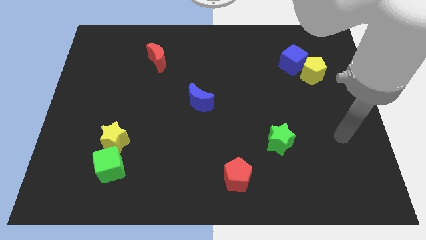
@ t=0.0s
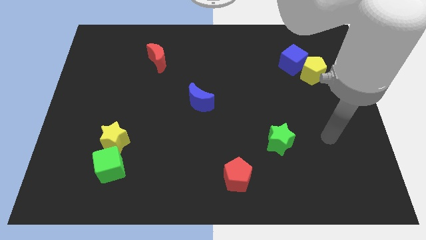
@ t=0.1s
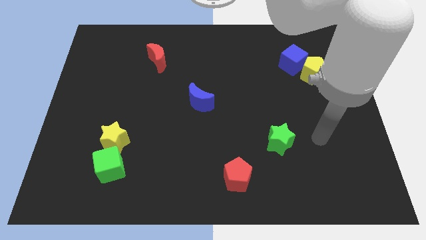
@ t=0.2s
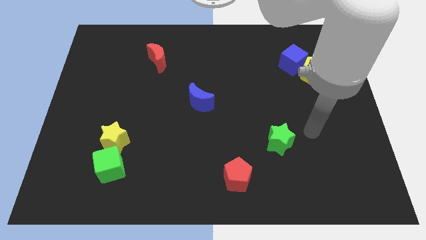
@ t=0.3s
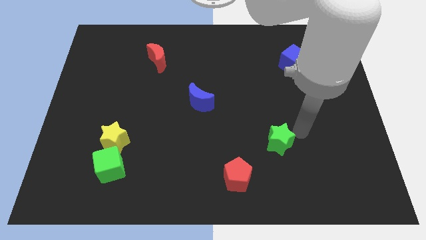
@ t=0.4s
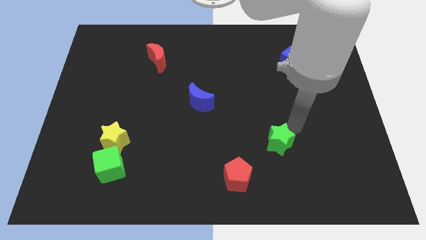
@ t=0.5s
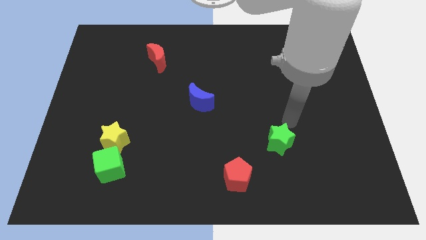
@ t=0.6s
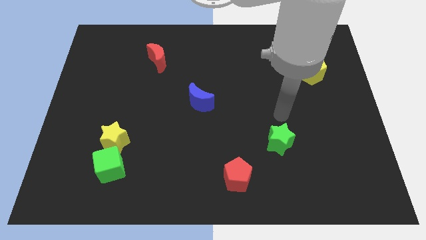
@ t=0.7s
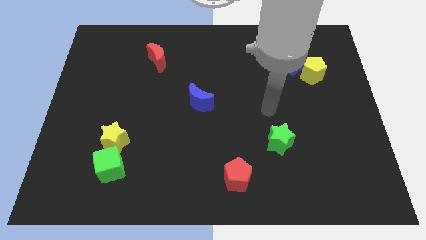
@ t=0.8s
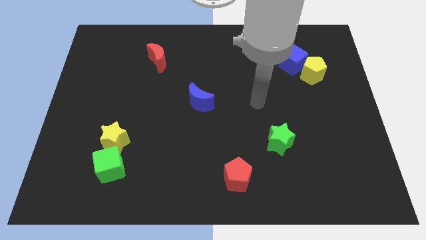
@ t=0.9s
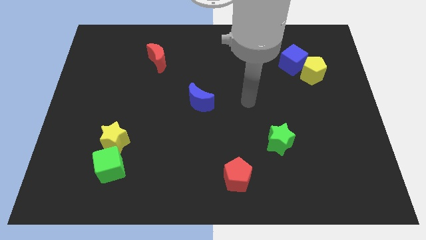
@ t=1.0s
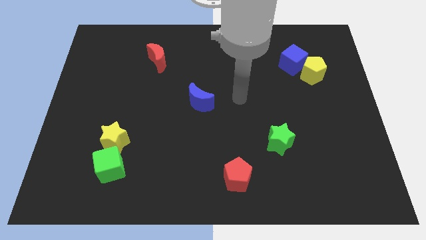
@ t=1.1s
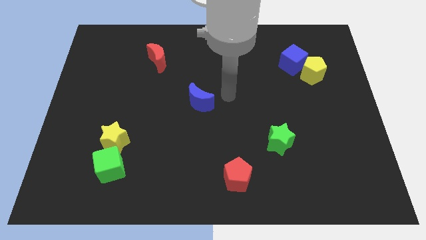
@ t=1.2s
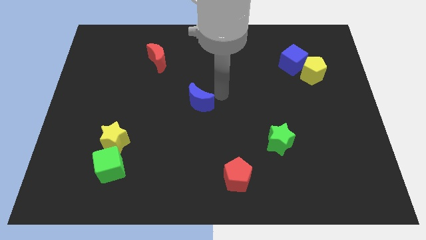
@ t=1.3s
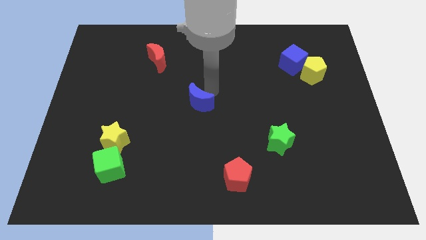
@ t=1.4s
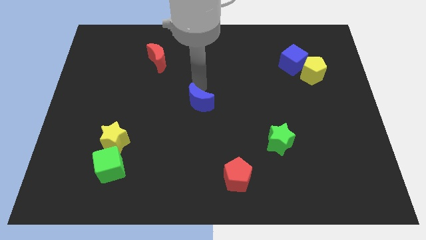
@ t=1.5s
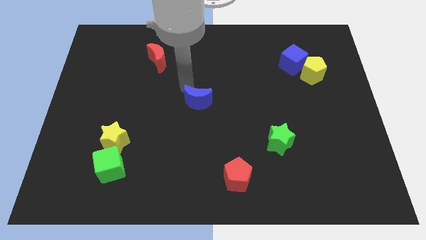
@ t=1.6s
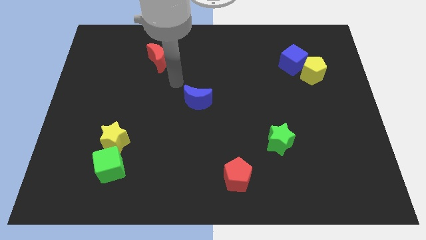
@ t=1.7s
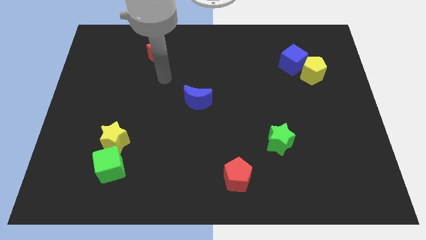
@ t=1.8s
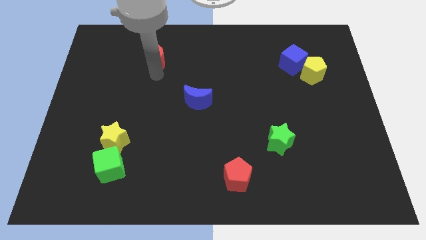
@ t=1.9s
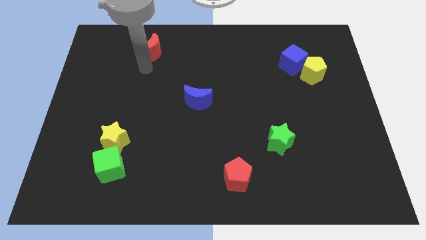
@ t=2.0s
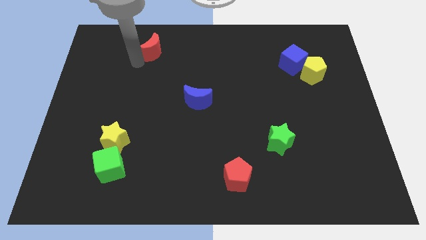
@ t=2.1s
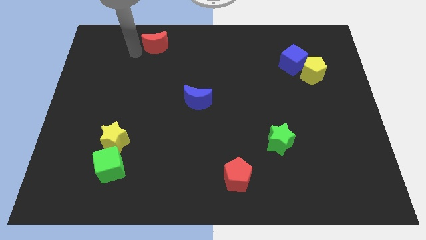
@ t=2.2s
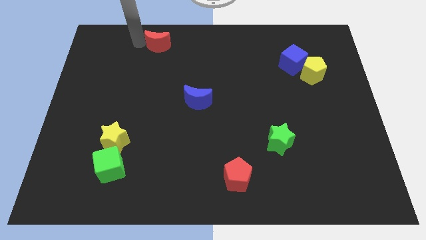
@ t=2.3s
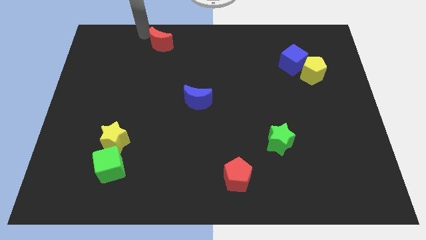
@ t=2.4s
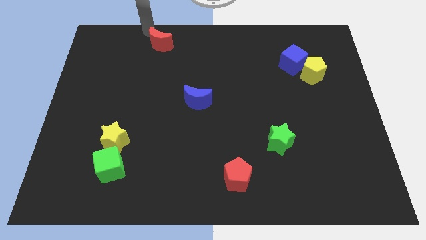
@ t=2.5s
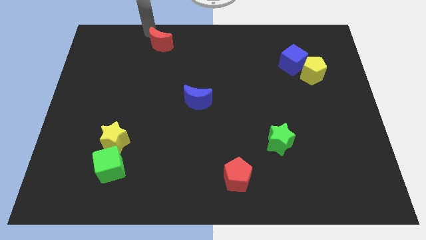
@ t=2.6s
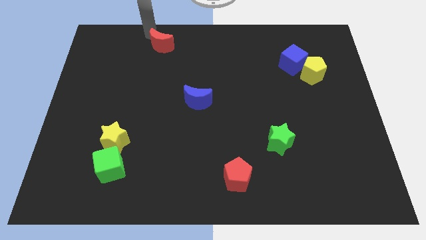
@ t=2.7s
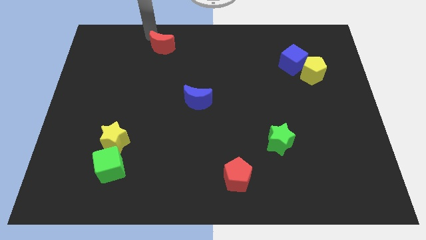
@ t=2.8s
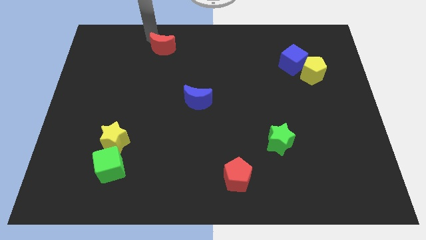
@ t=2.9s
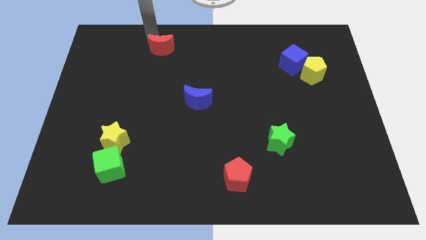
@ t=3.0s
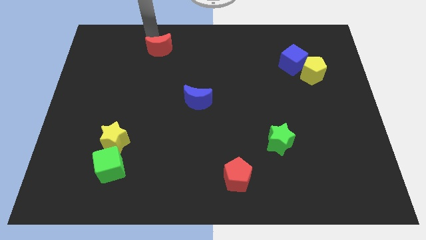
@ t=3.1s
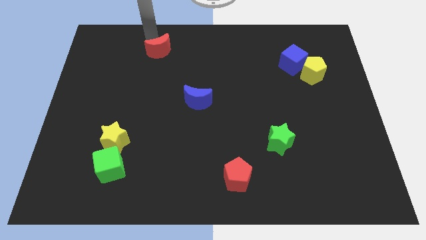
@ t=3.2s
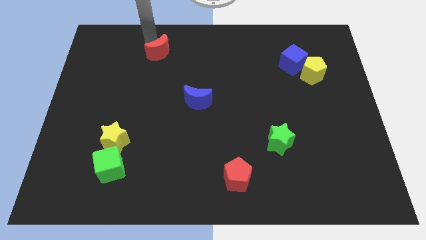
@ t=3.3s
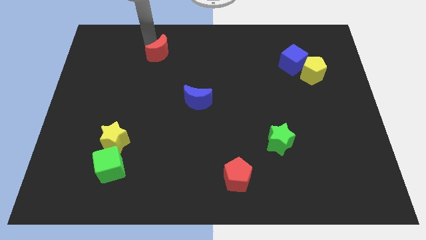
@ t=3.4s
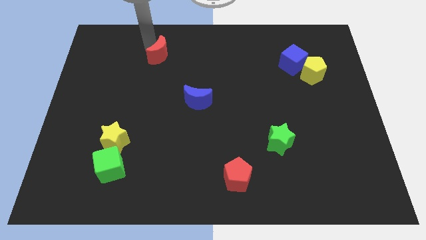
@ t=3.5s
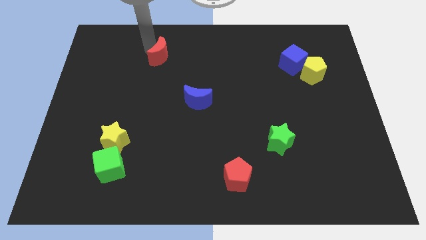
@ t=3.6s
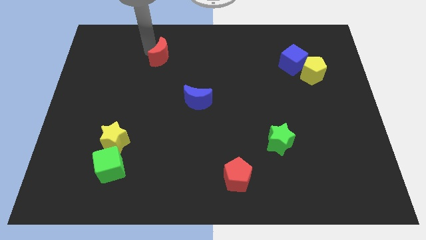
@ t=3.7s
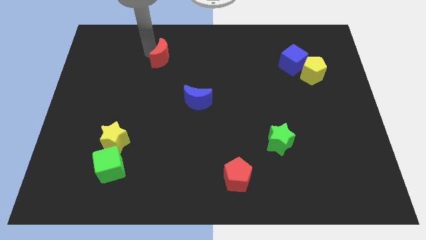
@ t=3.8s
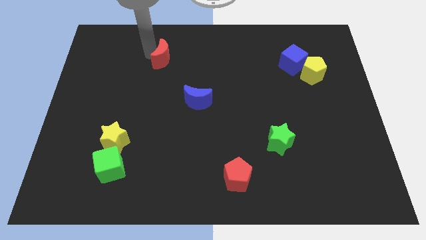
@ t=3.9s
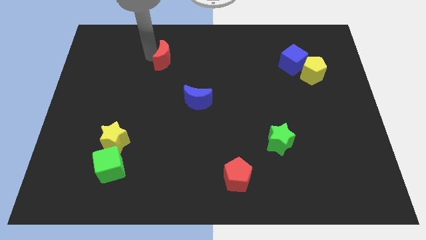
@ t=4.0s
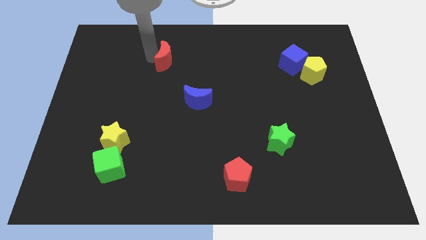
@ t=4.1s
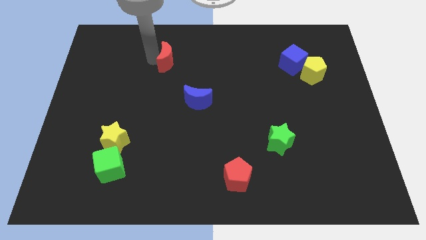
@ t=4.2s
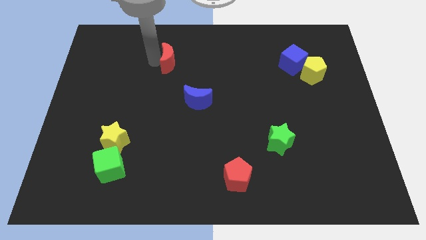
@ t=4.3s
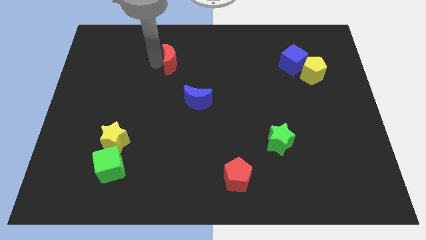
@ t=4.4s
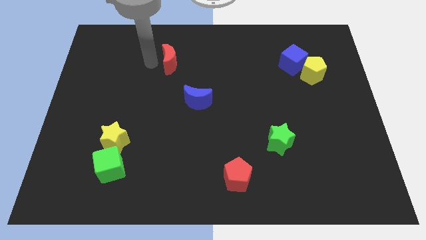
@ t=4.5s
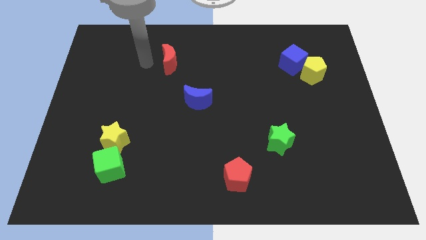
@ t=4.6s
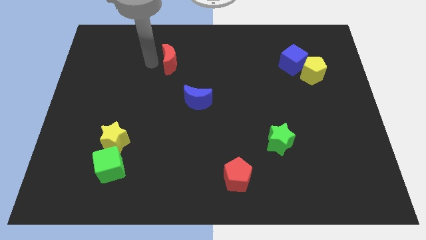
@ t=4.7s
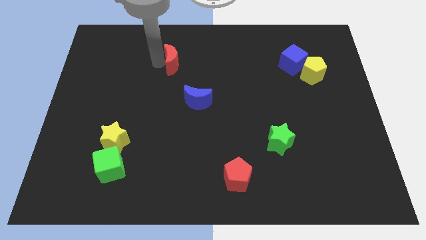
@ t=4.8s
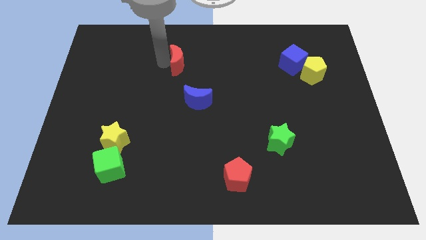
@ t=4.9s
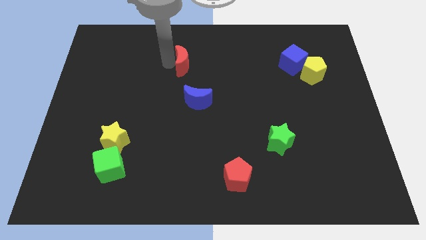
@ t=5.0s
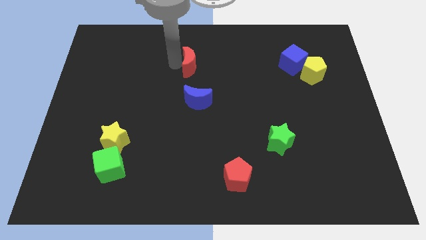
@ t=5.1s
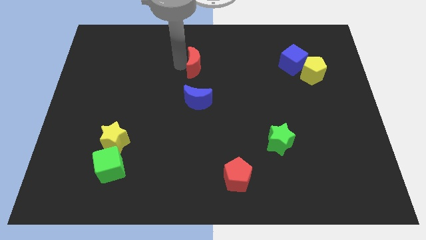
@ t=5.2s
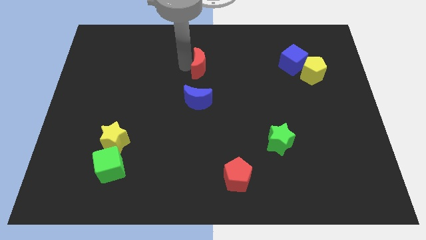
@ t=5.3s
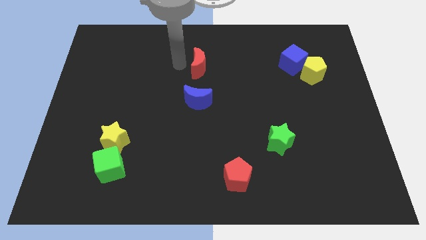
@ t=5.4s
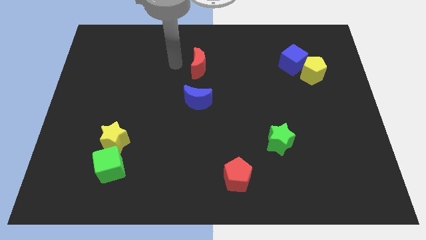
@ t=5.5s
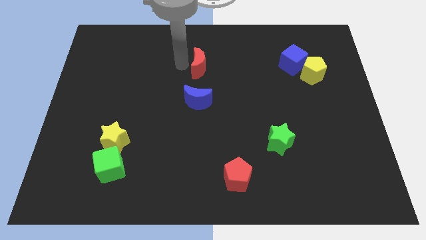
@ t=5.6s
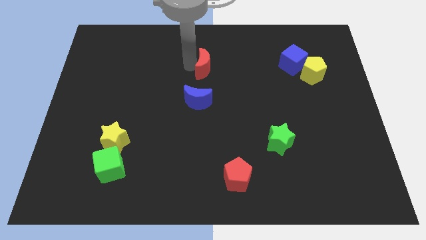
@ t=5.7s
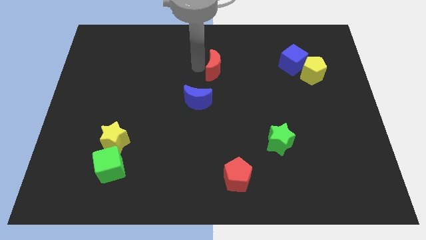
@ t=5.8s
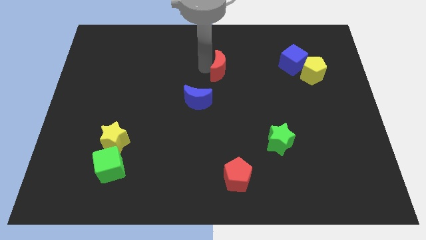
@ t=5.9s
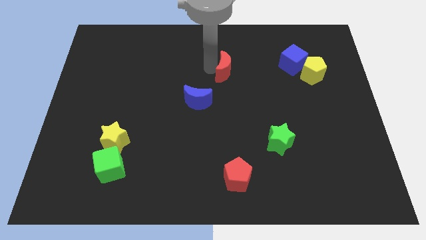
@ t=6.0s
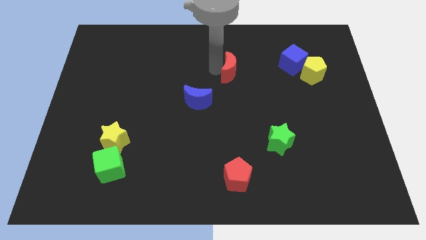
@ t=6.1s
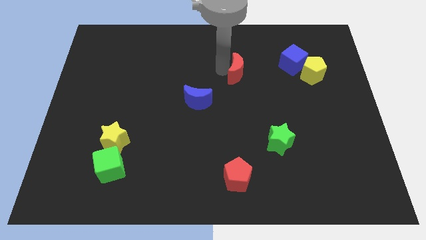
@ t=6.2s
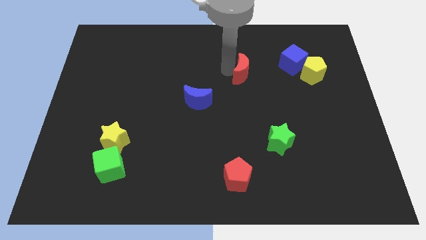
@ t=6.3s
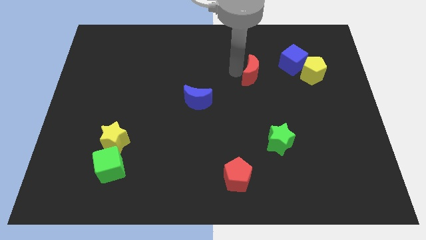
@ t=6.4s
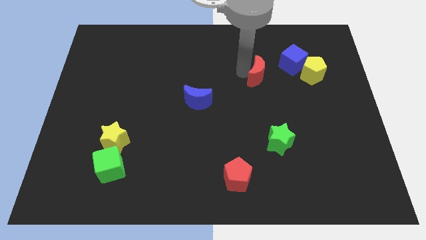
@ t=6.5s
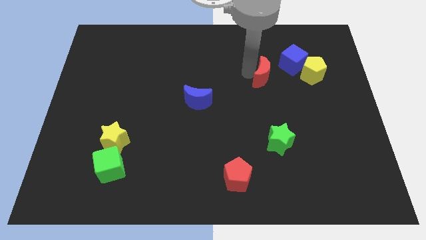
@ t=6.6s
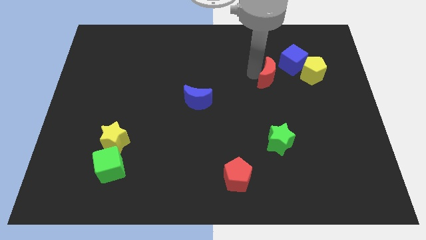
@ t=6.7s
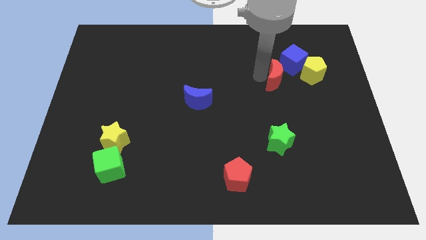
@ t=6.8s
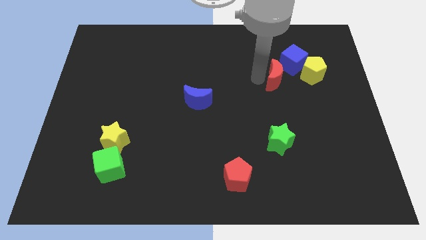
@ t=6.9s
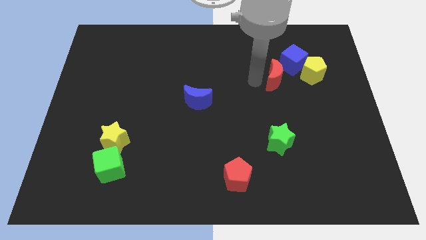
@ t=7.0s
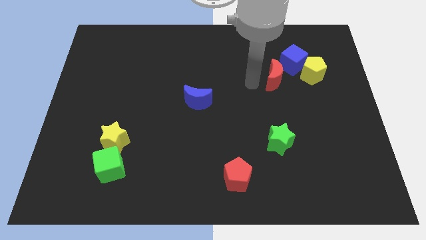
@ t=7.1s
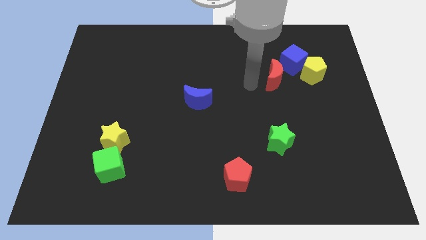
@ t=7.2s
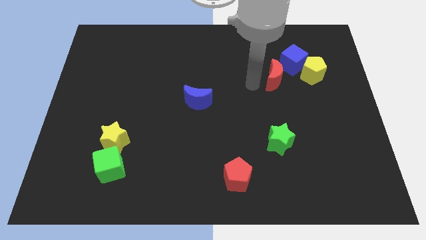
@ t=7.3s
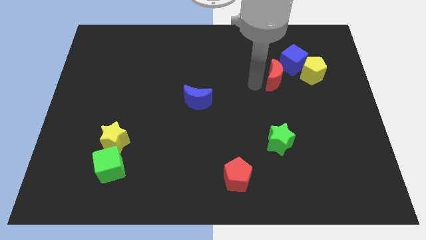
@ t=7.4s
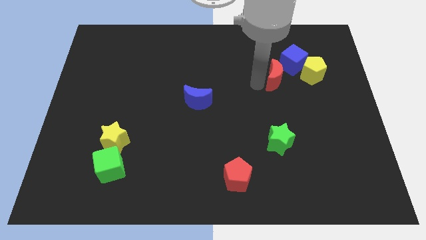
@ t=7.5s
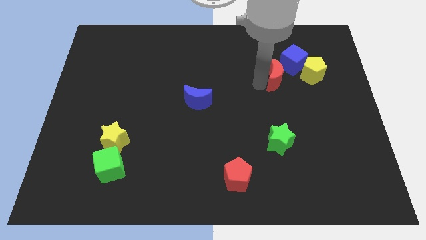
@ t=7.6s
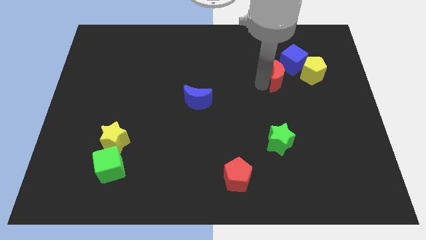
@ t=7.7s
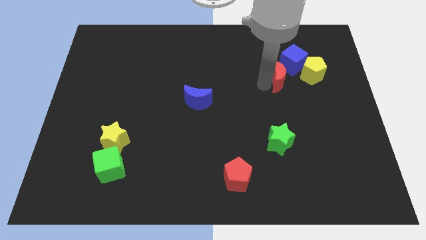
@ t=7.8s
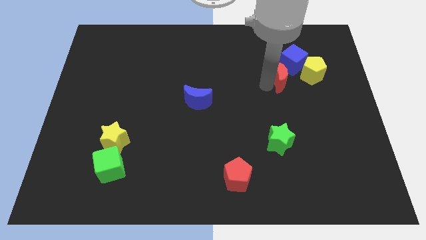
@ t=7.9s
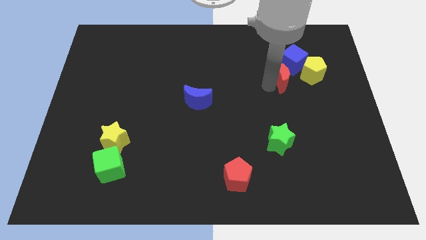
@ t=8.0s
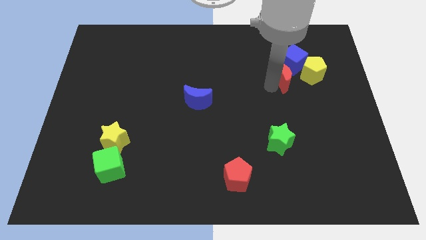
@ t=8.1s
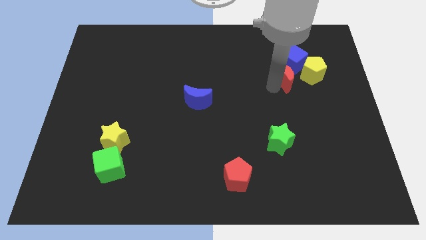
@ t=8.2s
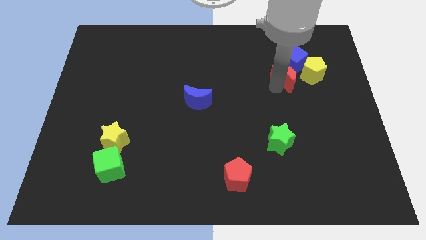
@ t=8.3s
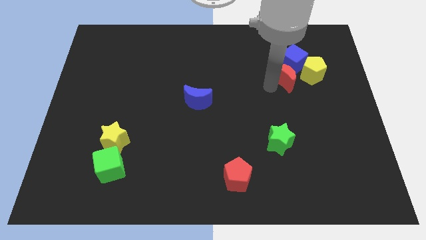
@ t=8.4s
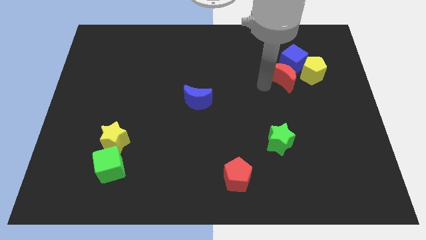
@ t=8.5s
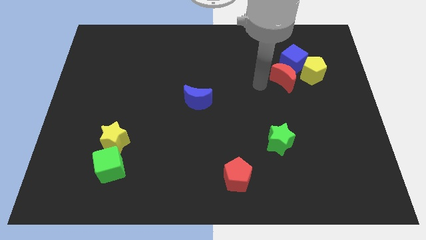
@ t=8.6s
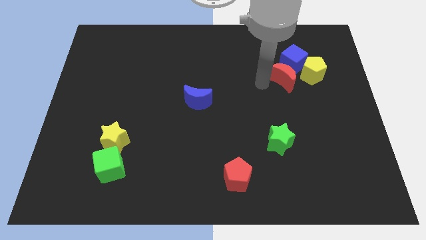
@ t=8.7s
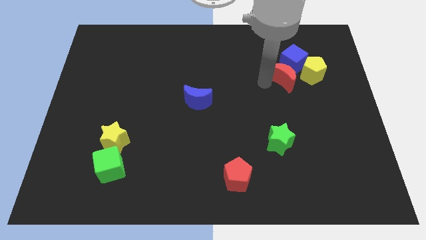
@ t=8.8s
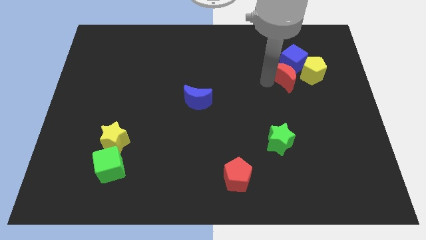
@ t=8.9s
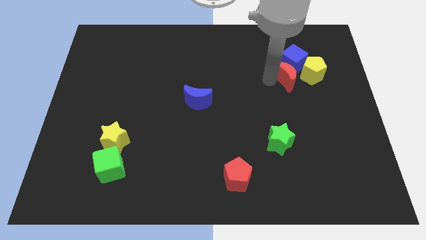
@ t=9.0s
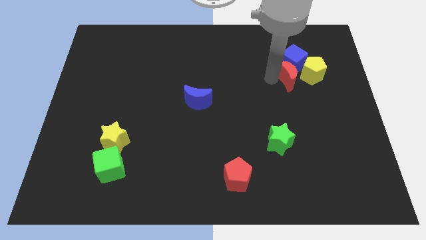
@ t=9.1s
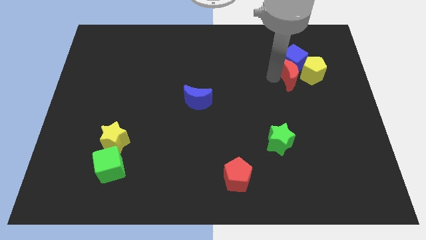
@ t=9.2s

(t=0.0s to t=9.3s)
move the red moon next to the yellow pentagon
